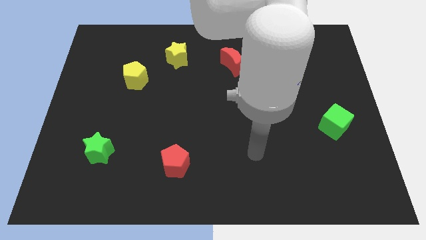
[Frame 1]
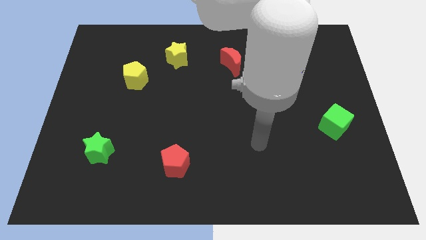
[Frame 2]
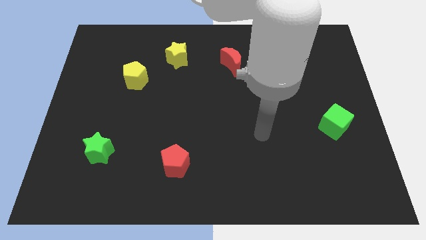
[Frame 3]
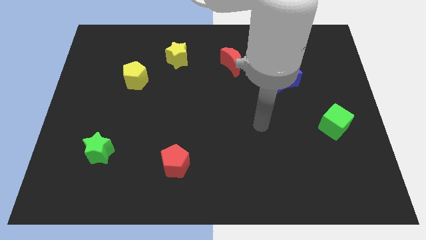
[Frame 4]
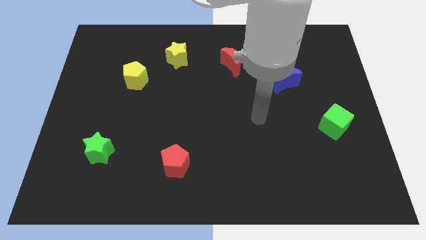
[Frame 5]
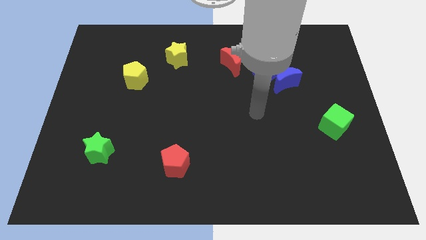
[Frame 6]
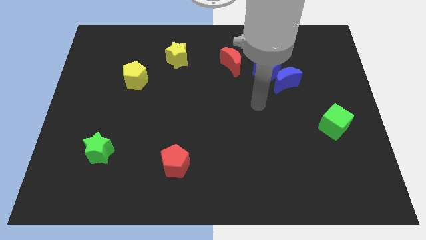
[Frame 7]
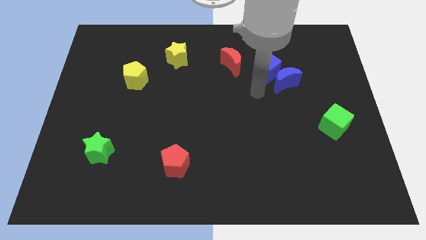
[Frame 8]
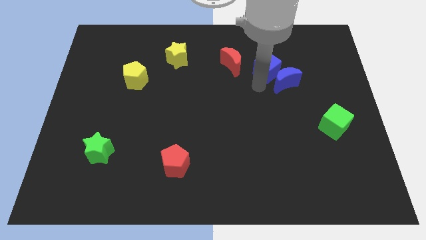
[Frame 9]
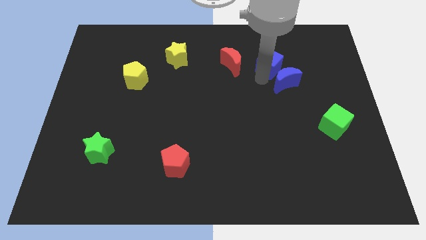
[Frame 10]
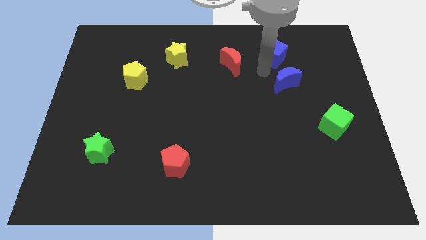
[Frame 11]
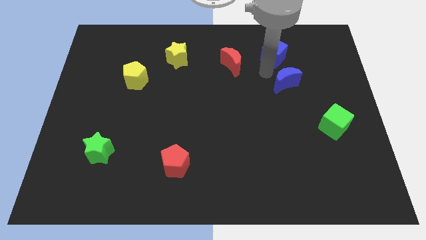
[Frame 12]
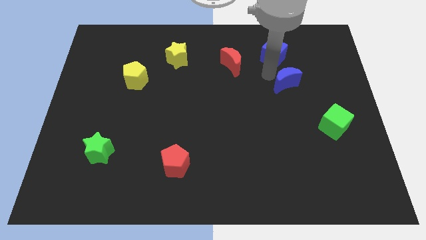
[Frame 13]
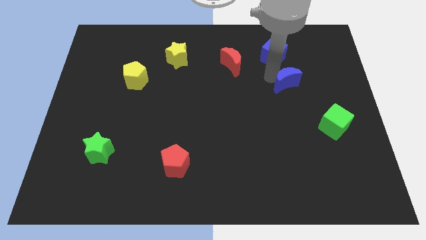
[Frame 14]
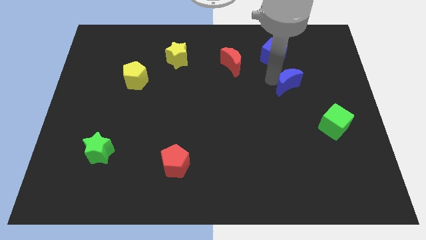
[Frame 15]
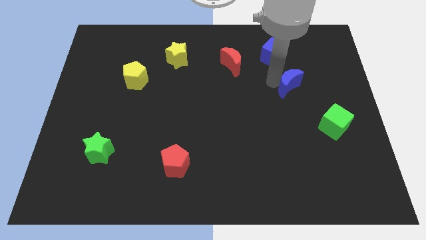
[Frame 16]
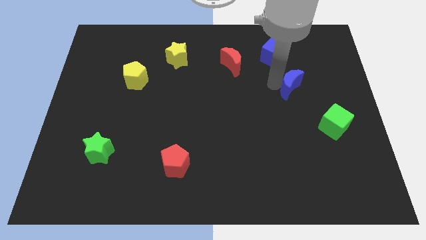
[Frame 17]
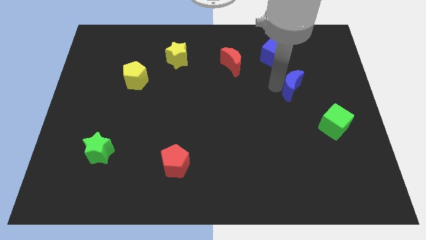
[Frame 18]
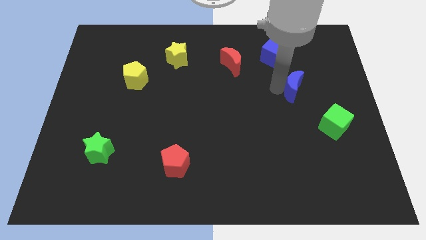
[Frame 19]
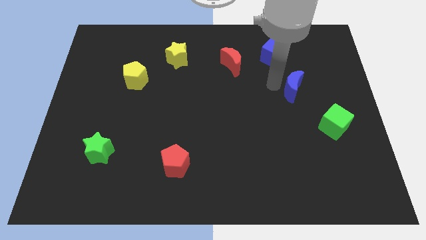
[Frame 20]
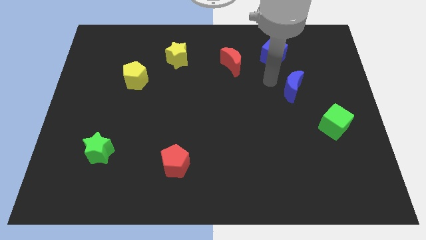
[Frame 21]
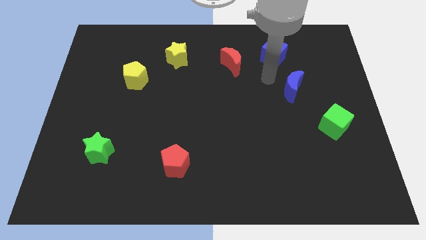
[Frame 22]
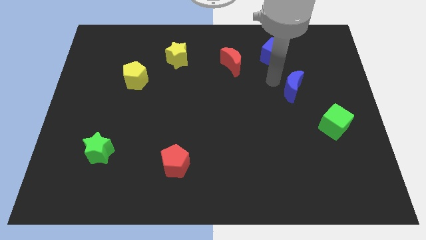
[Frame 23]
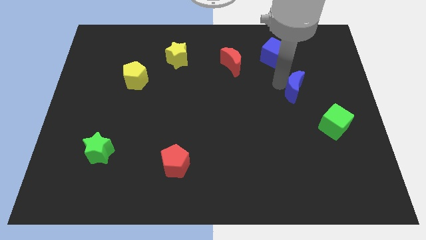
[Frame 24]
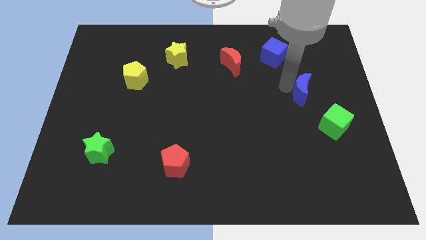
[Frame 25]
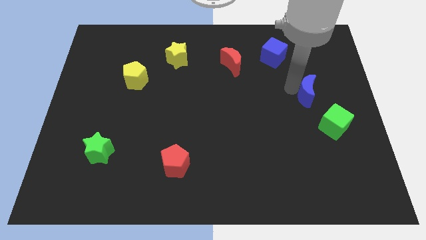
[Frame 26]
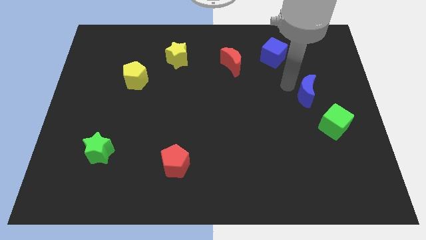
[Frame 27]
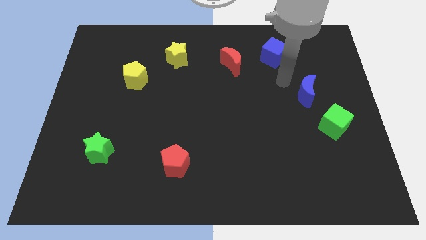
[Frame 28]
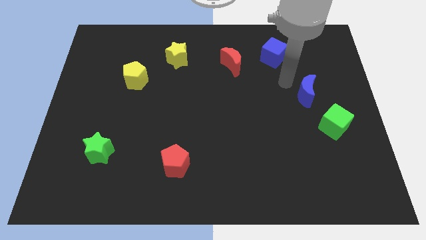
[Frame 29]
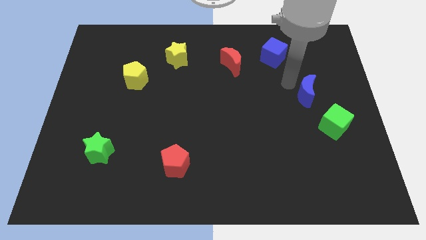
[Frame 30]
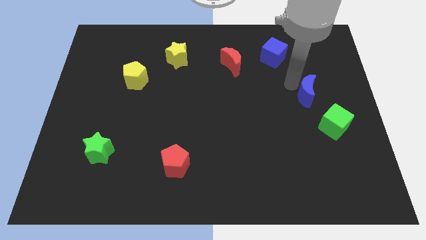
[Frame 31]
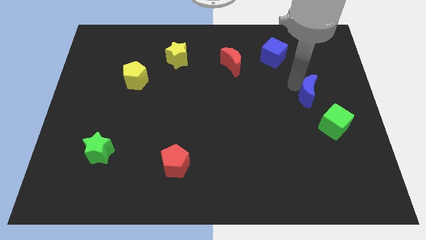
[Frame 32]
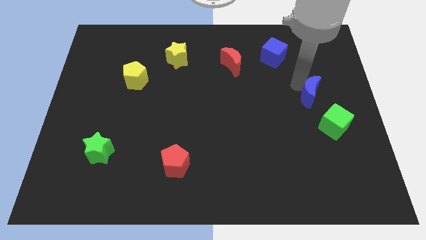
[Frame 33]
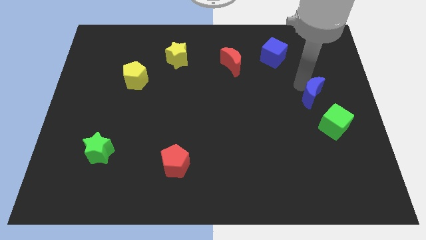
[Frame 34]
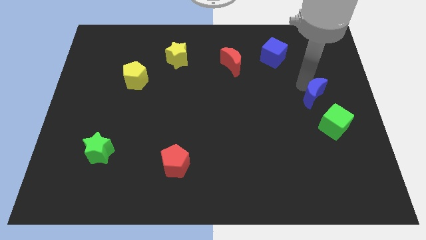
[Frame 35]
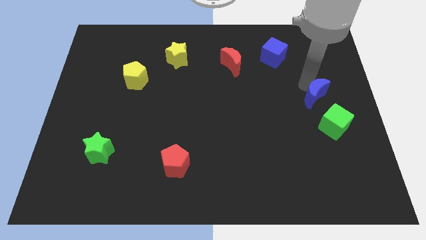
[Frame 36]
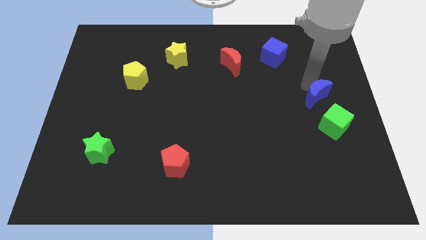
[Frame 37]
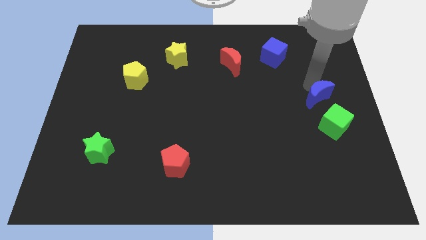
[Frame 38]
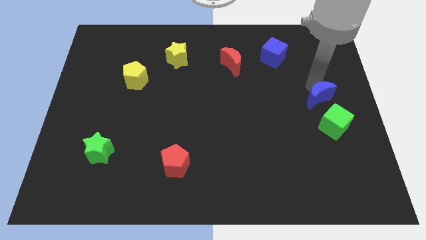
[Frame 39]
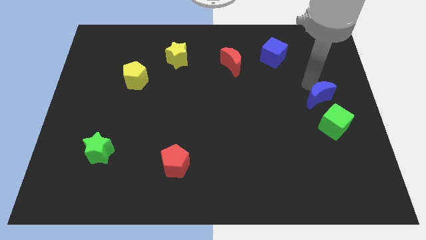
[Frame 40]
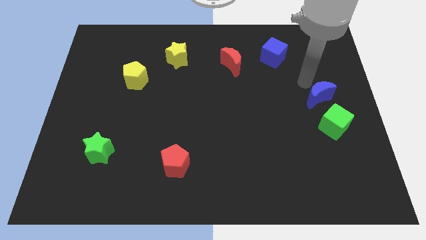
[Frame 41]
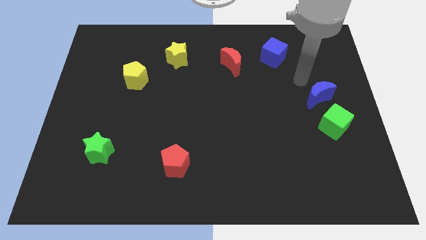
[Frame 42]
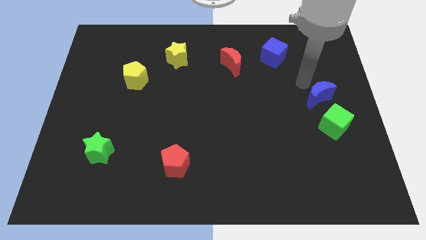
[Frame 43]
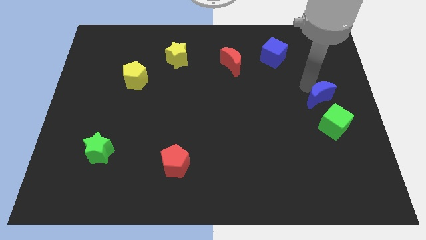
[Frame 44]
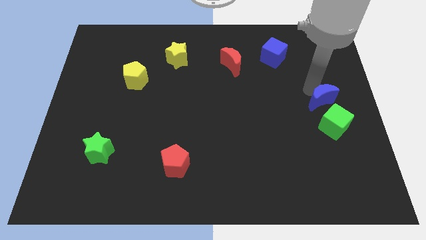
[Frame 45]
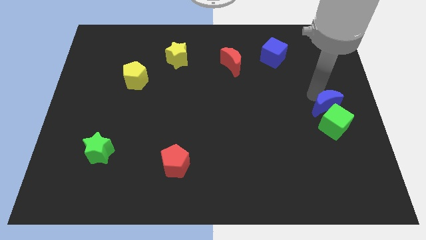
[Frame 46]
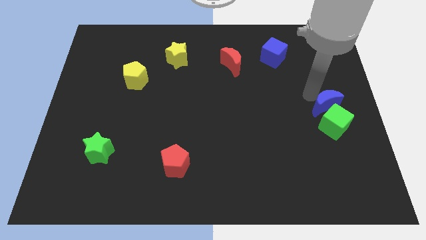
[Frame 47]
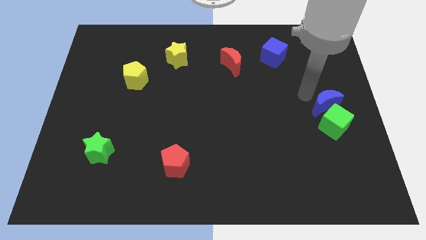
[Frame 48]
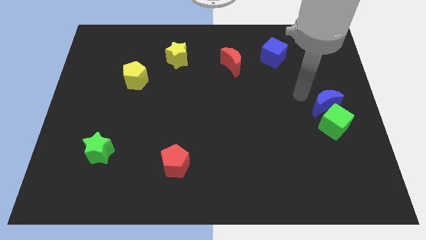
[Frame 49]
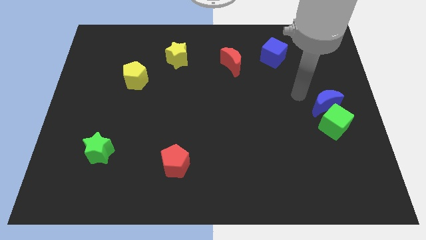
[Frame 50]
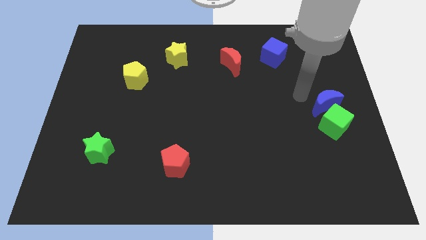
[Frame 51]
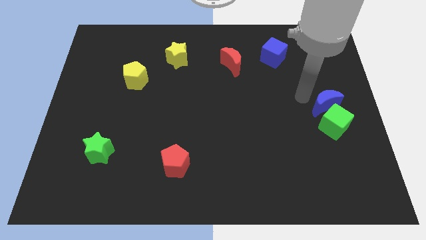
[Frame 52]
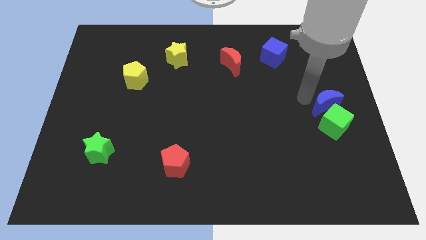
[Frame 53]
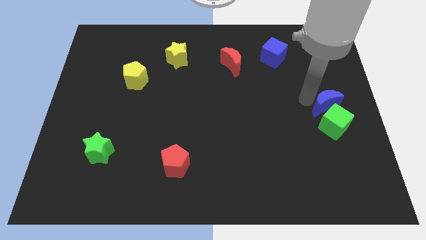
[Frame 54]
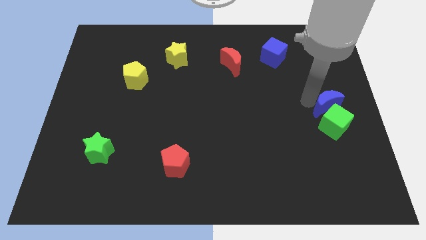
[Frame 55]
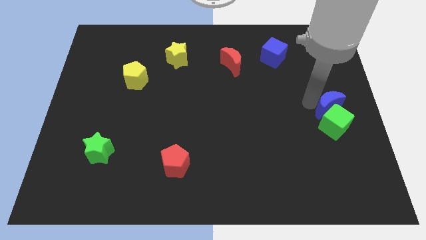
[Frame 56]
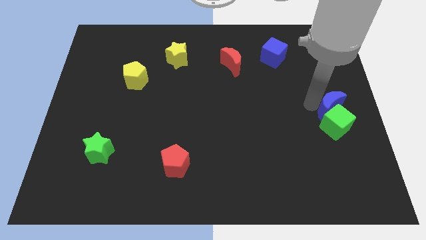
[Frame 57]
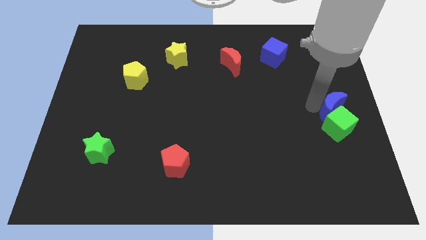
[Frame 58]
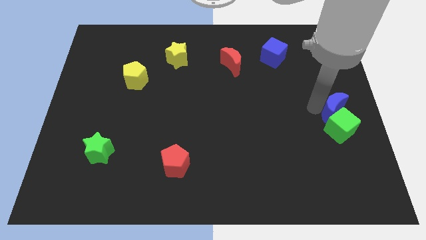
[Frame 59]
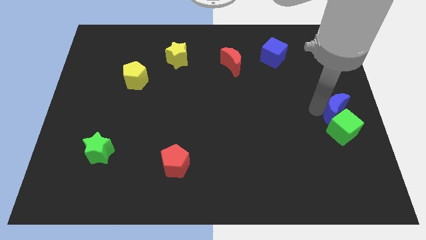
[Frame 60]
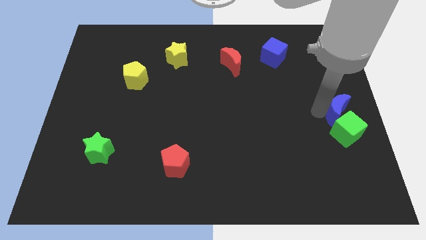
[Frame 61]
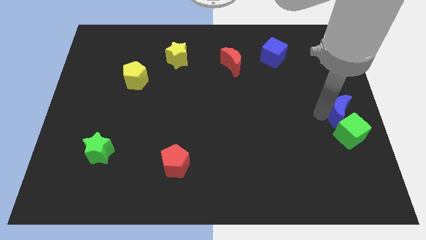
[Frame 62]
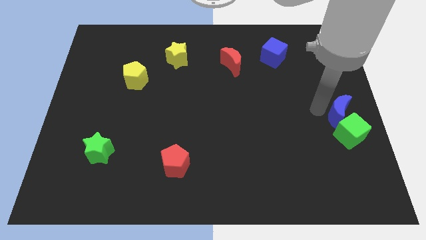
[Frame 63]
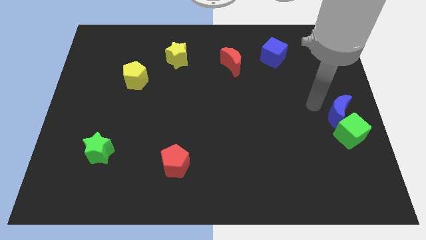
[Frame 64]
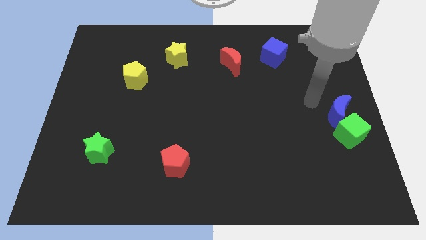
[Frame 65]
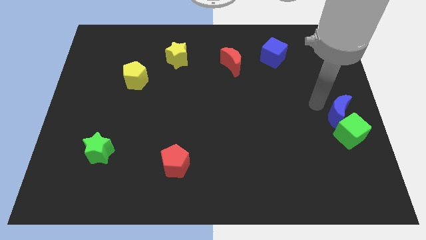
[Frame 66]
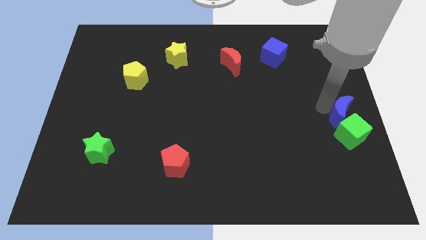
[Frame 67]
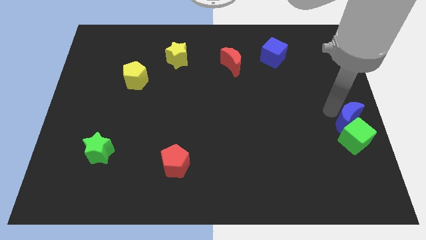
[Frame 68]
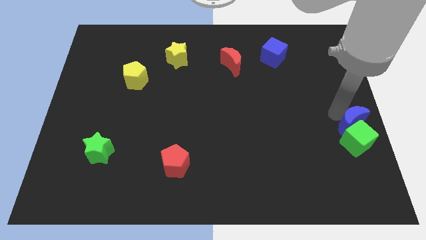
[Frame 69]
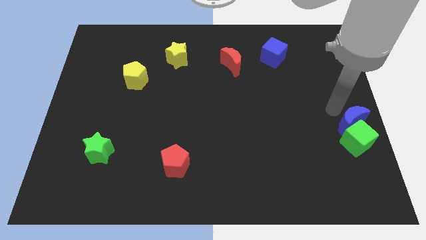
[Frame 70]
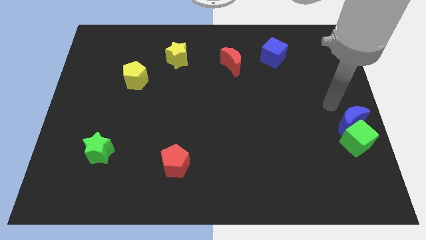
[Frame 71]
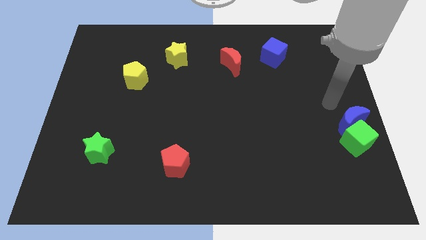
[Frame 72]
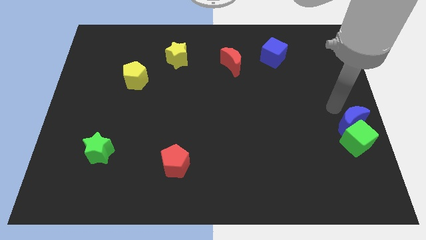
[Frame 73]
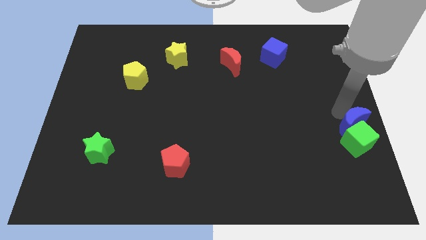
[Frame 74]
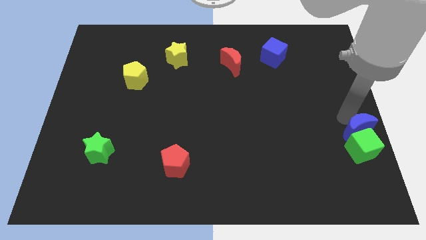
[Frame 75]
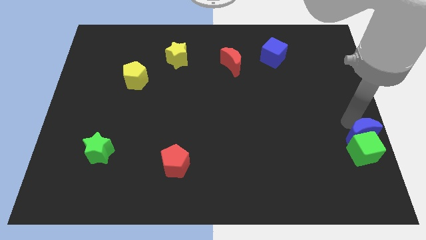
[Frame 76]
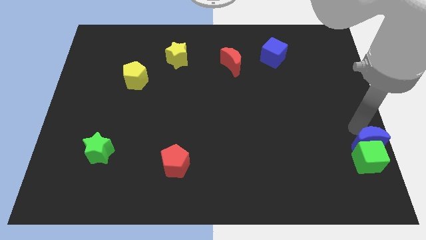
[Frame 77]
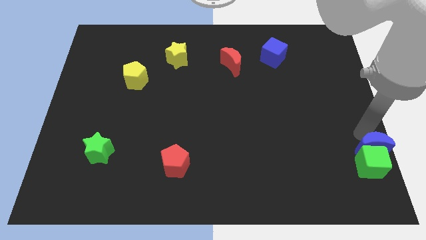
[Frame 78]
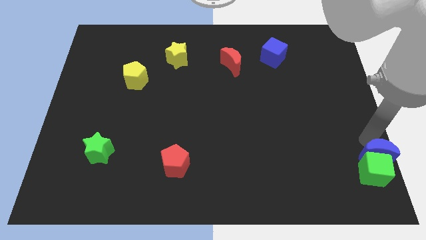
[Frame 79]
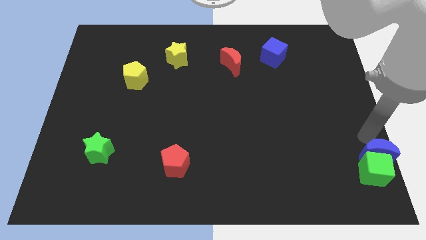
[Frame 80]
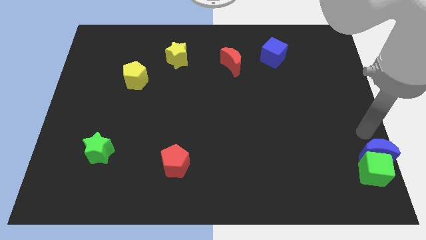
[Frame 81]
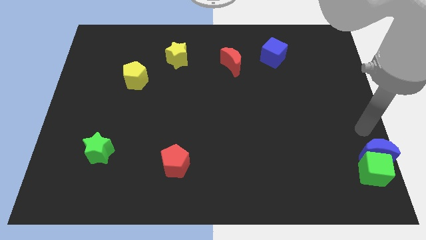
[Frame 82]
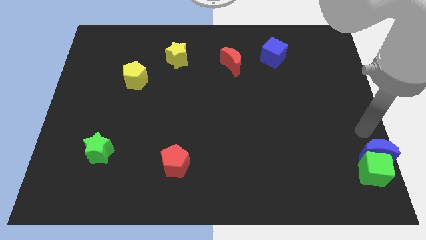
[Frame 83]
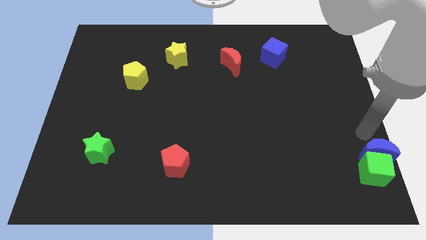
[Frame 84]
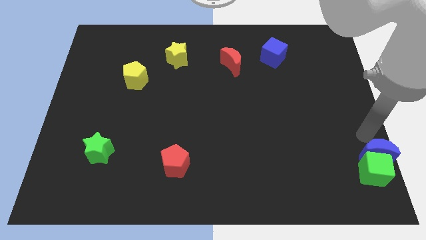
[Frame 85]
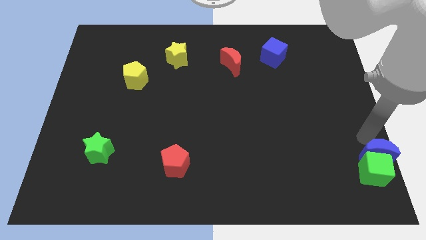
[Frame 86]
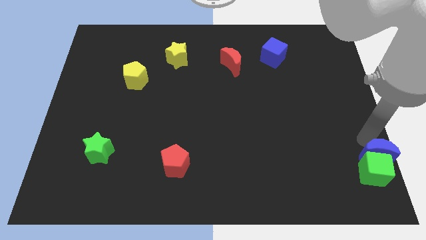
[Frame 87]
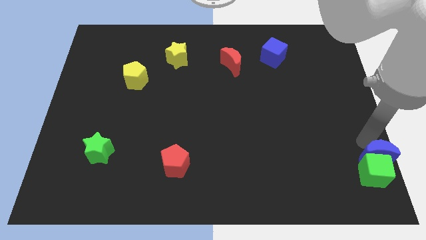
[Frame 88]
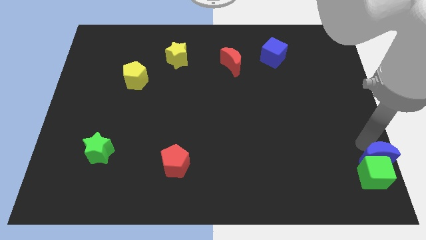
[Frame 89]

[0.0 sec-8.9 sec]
put the blue moon to the bottom right corner
